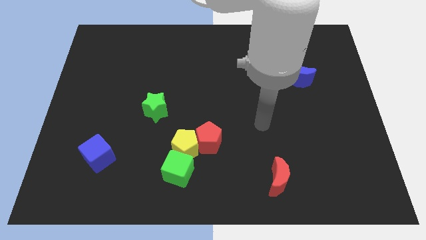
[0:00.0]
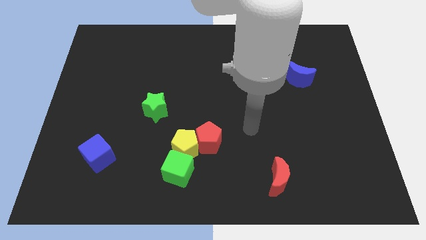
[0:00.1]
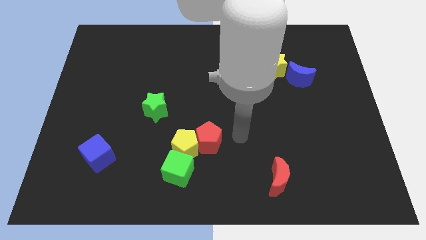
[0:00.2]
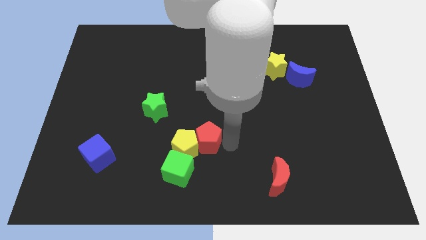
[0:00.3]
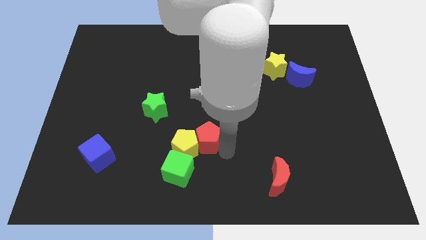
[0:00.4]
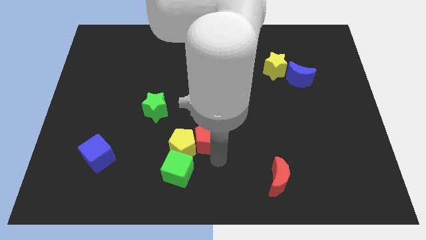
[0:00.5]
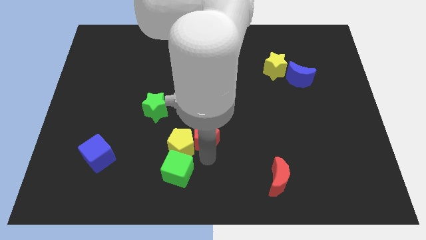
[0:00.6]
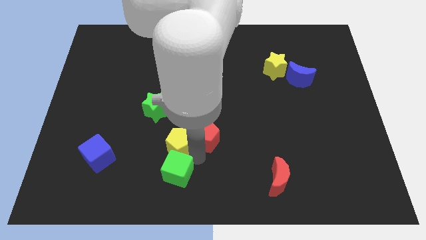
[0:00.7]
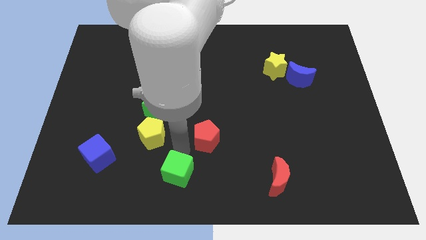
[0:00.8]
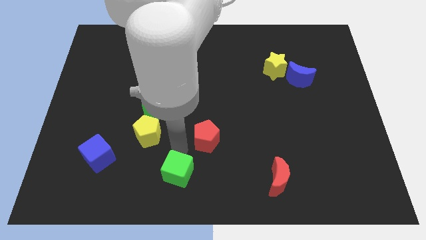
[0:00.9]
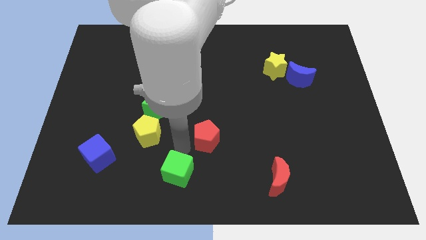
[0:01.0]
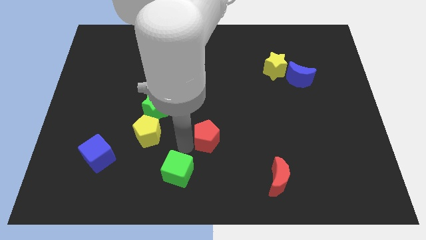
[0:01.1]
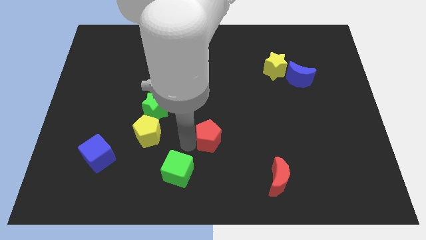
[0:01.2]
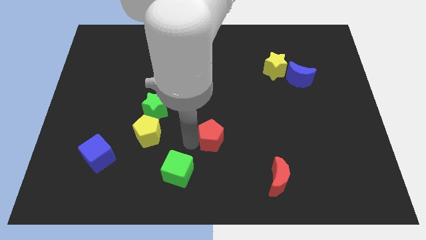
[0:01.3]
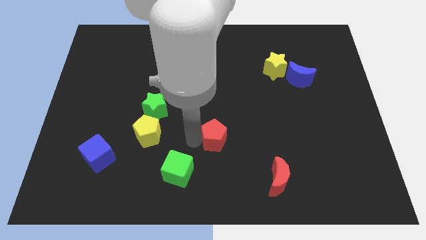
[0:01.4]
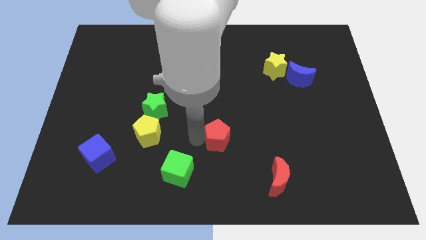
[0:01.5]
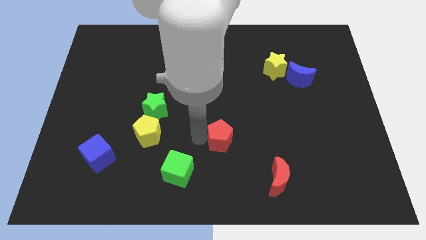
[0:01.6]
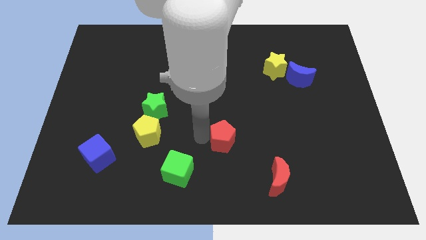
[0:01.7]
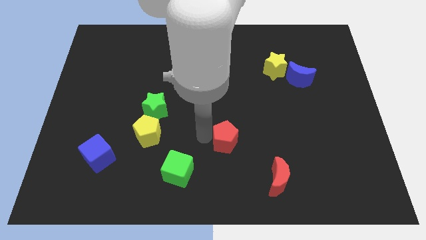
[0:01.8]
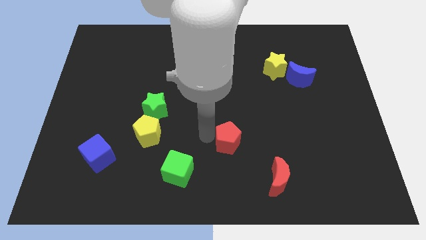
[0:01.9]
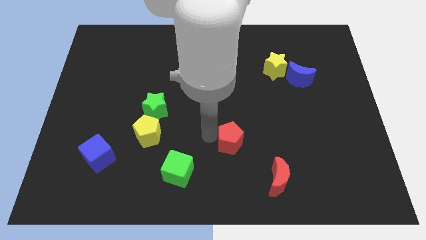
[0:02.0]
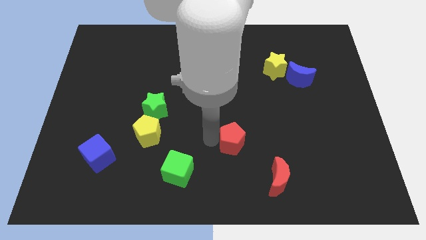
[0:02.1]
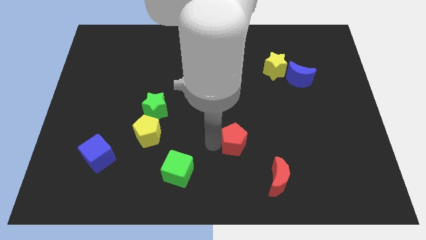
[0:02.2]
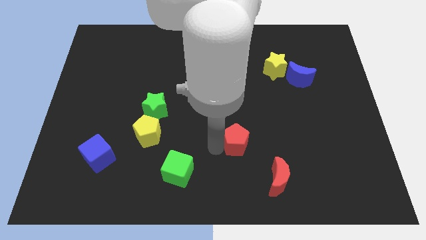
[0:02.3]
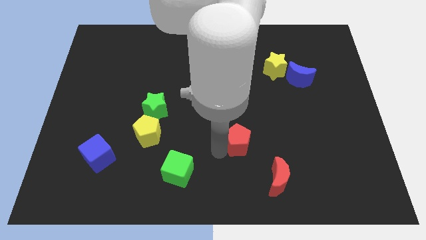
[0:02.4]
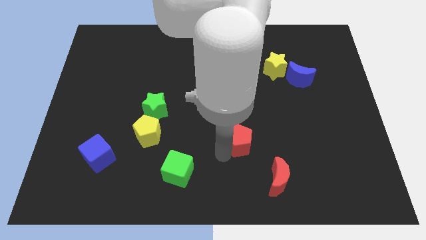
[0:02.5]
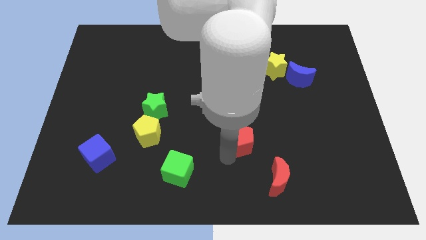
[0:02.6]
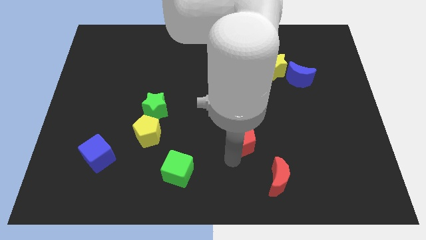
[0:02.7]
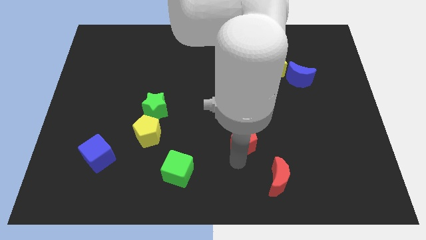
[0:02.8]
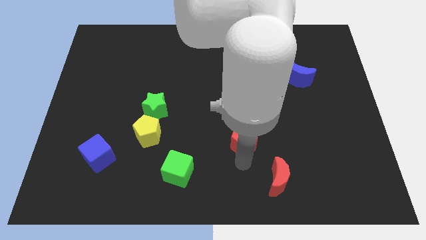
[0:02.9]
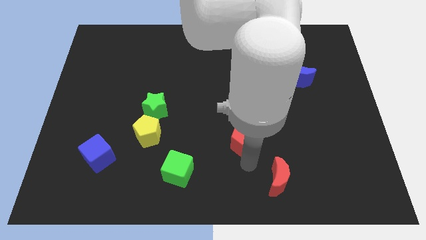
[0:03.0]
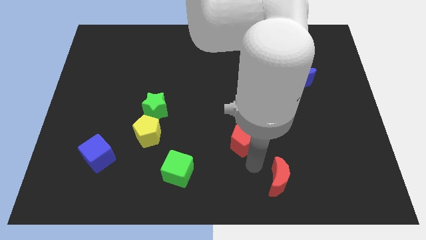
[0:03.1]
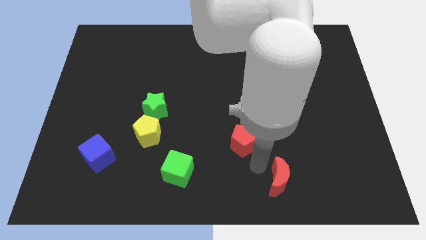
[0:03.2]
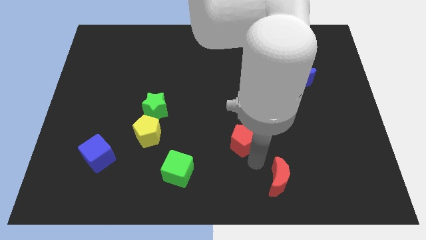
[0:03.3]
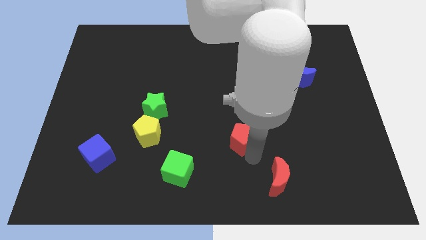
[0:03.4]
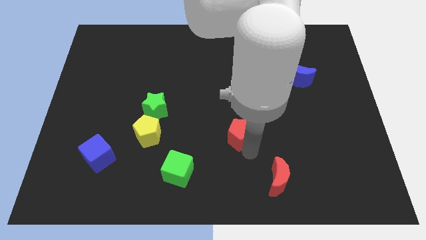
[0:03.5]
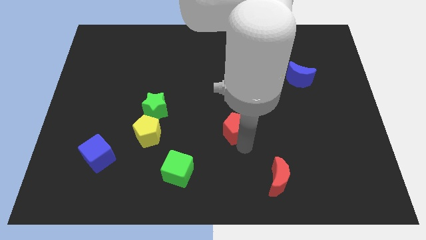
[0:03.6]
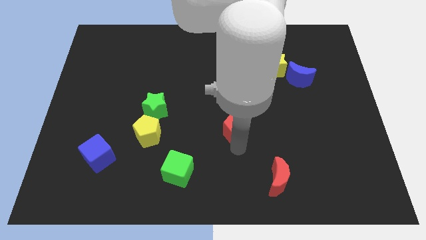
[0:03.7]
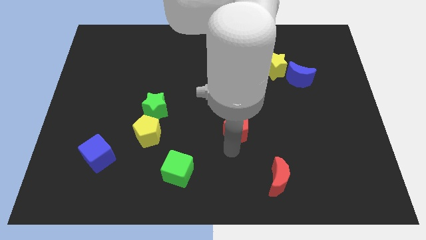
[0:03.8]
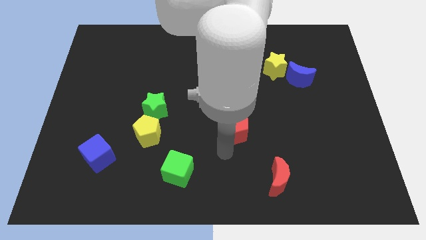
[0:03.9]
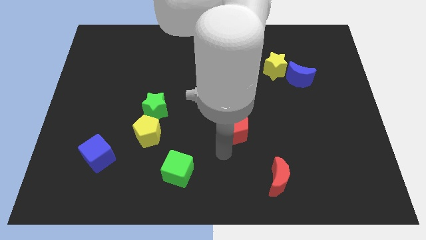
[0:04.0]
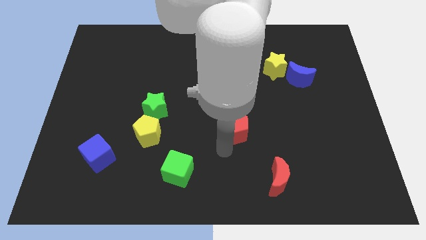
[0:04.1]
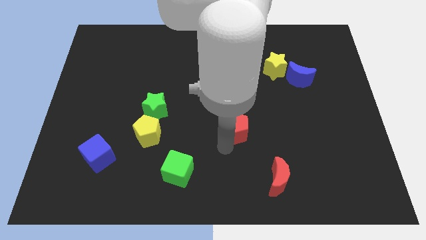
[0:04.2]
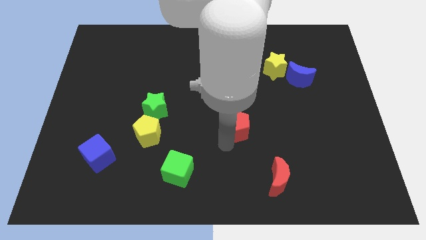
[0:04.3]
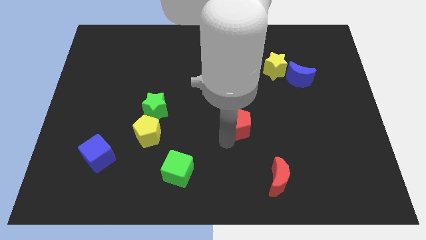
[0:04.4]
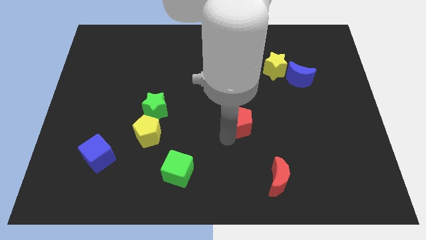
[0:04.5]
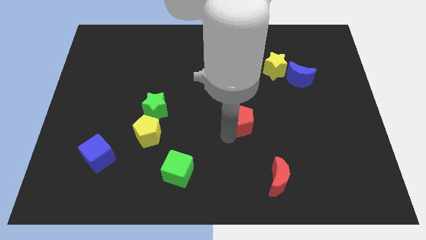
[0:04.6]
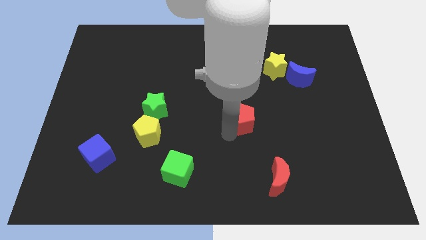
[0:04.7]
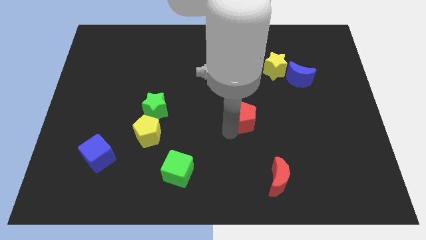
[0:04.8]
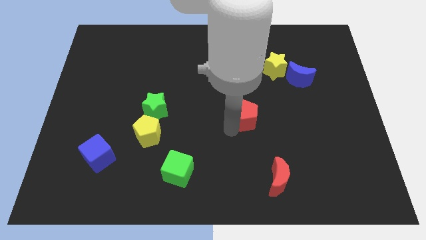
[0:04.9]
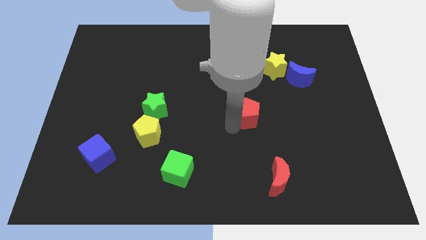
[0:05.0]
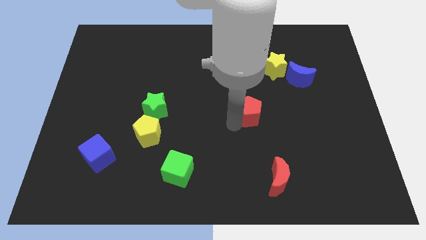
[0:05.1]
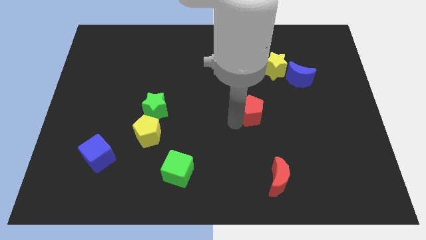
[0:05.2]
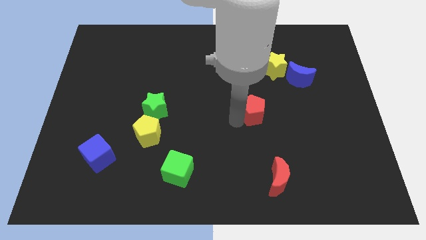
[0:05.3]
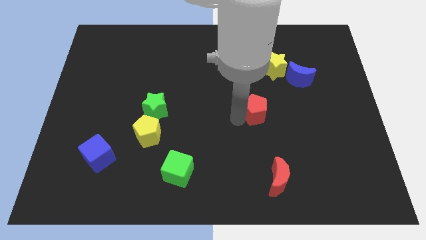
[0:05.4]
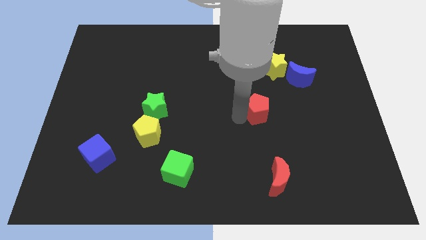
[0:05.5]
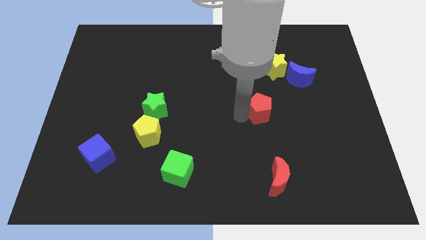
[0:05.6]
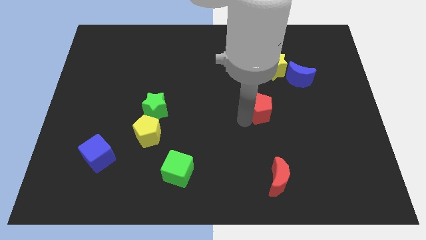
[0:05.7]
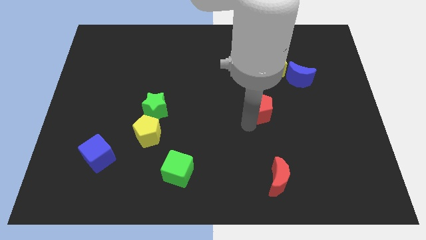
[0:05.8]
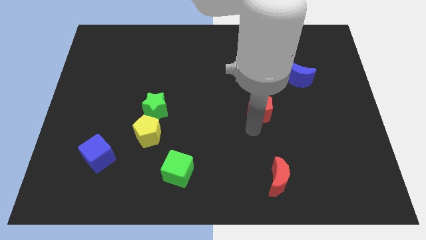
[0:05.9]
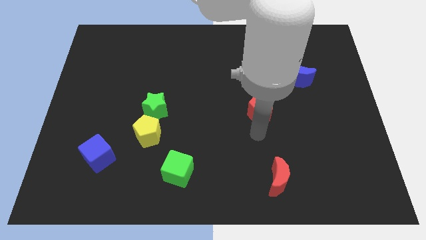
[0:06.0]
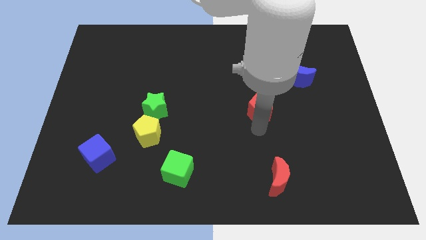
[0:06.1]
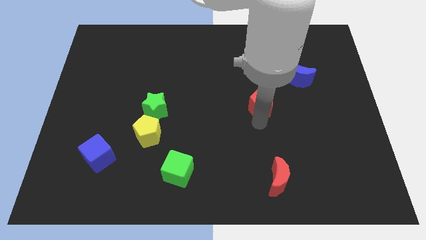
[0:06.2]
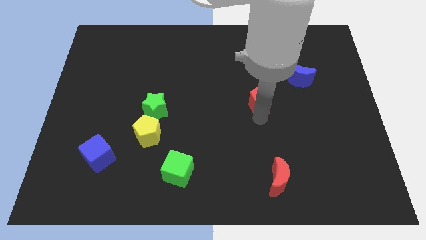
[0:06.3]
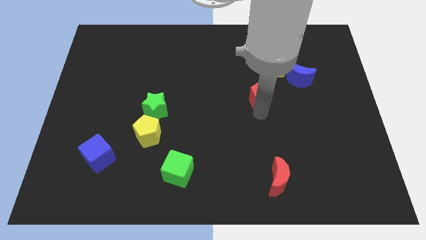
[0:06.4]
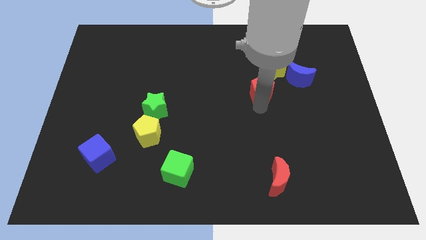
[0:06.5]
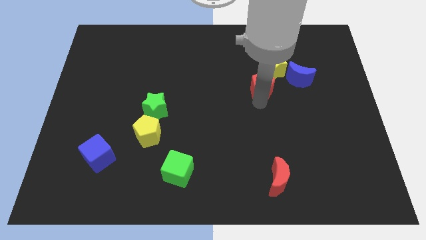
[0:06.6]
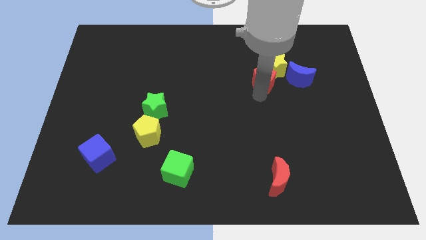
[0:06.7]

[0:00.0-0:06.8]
push the red pentagon towards the yellow star
